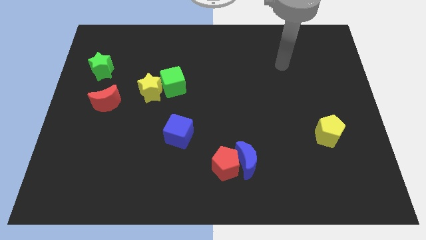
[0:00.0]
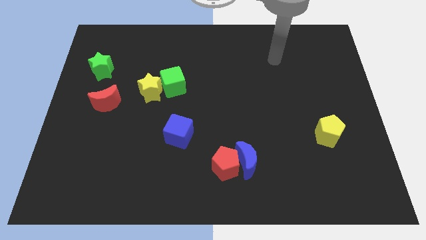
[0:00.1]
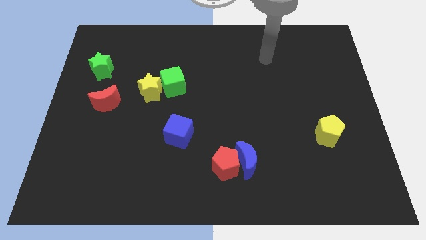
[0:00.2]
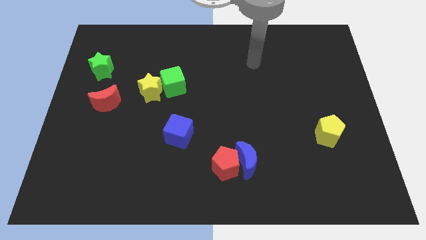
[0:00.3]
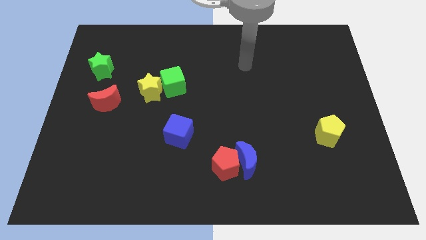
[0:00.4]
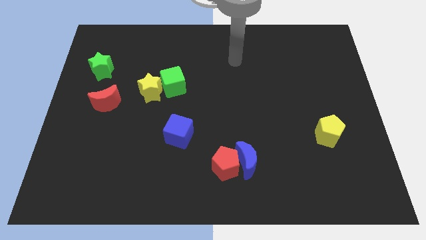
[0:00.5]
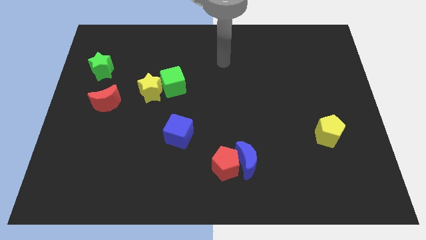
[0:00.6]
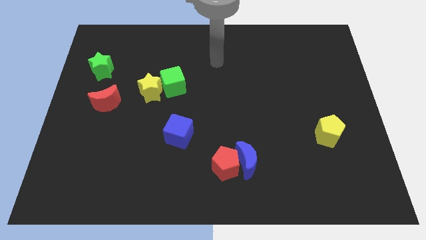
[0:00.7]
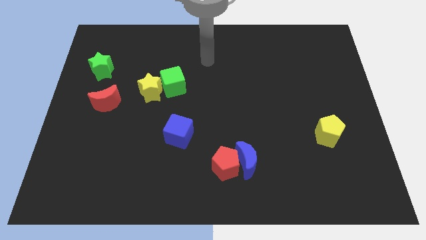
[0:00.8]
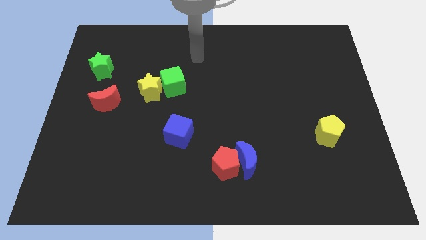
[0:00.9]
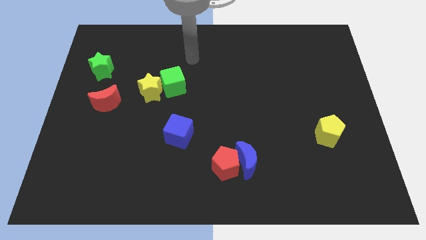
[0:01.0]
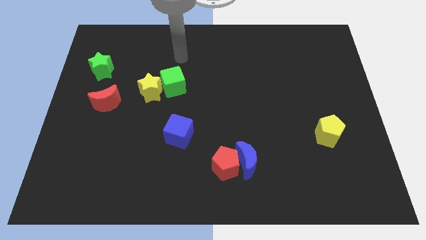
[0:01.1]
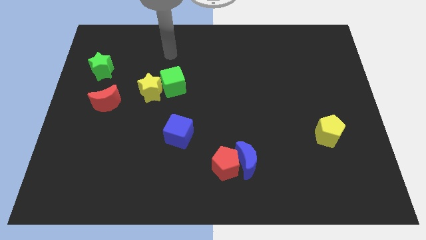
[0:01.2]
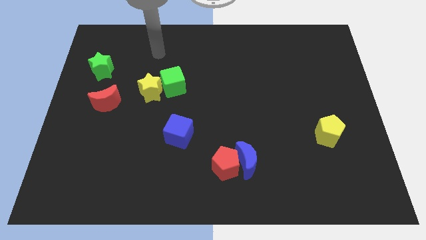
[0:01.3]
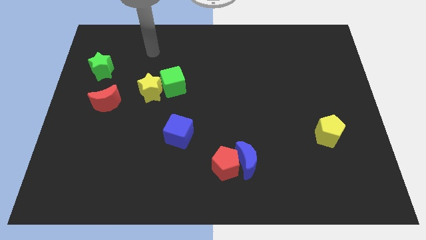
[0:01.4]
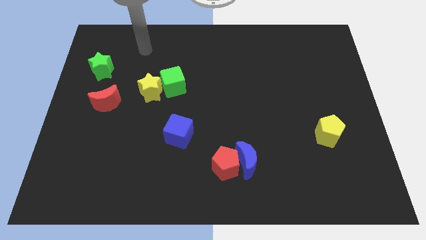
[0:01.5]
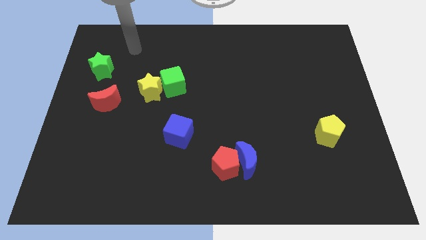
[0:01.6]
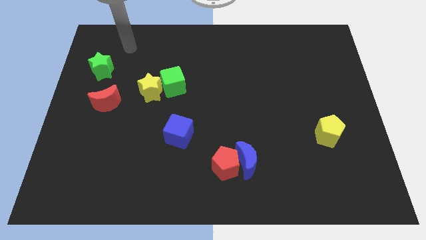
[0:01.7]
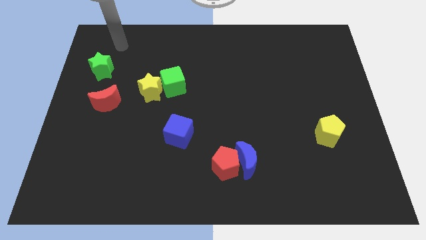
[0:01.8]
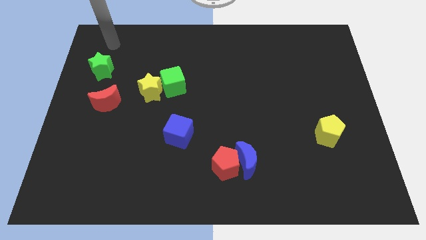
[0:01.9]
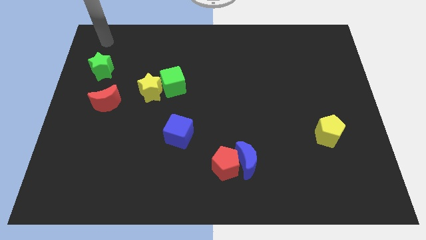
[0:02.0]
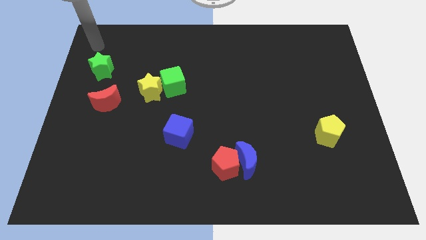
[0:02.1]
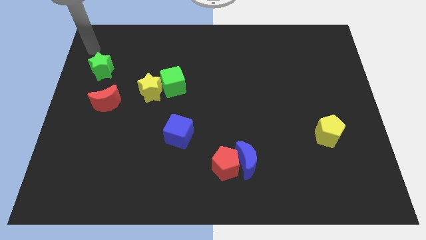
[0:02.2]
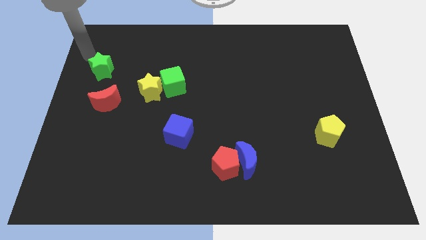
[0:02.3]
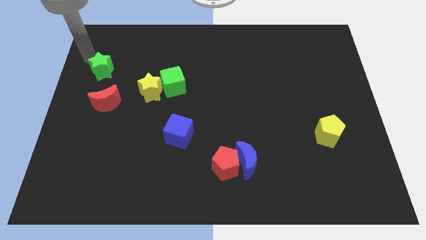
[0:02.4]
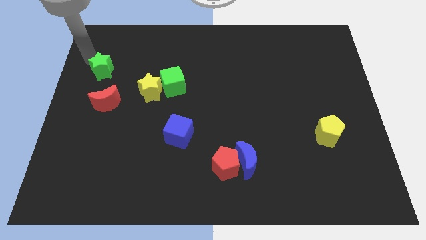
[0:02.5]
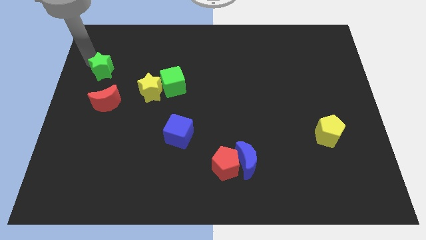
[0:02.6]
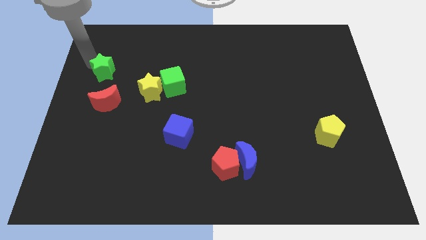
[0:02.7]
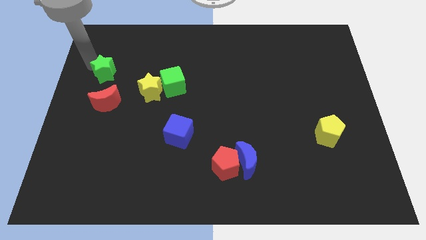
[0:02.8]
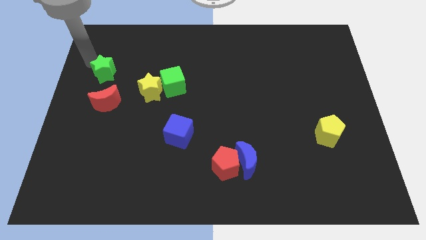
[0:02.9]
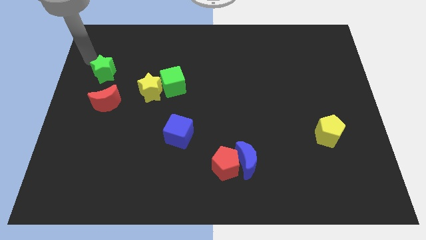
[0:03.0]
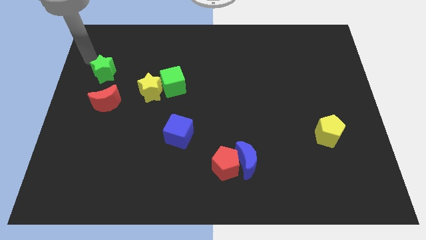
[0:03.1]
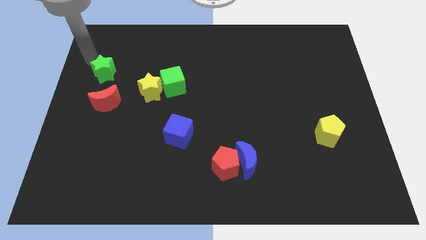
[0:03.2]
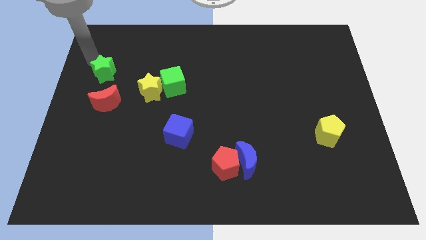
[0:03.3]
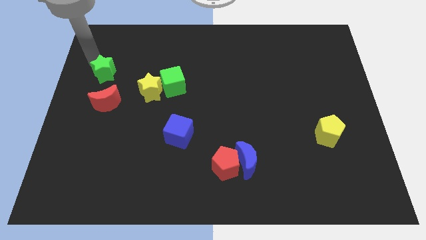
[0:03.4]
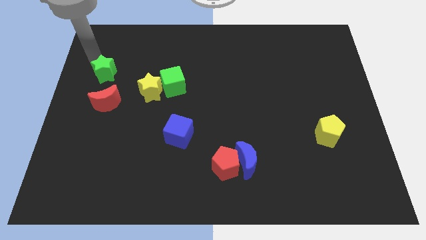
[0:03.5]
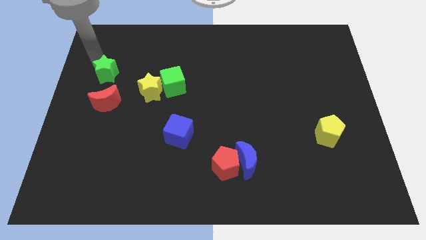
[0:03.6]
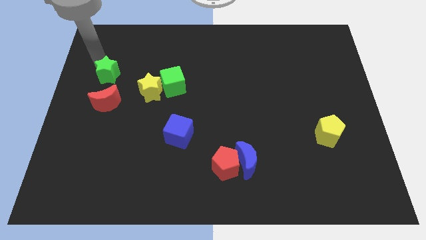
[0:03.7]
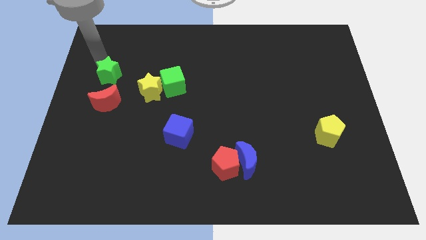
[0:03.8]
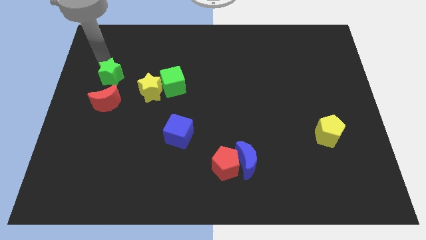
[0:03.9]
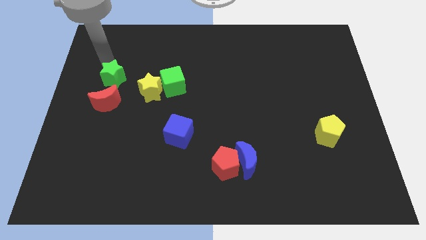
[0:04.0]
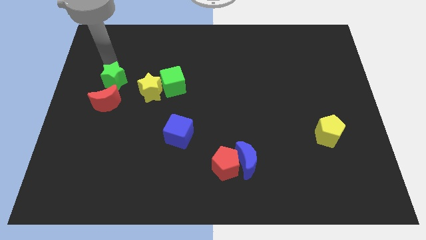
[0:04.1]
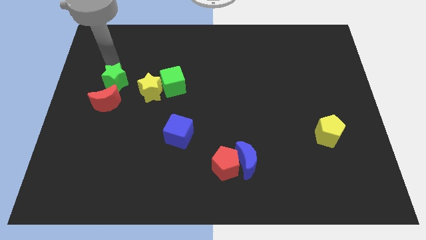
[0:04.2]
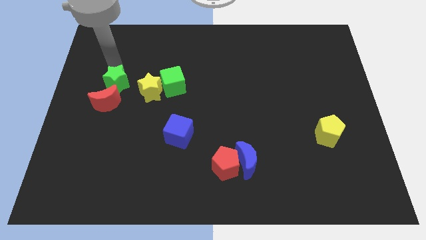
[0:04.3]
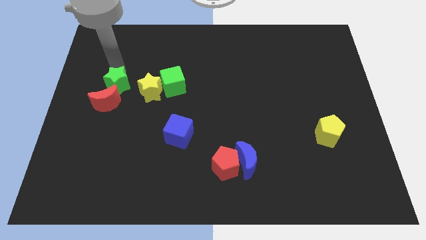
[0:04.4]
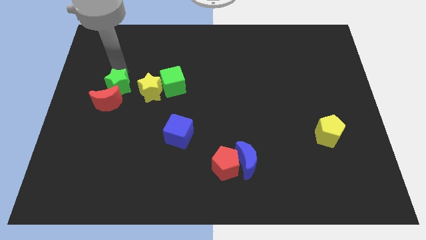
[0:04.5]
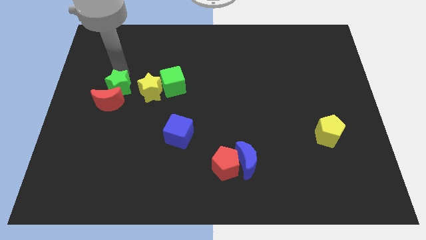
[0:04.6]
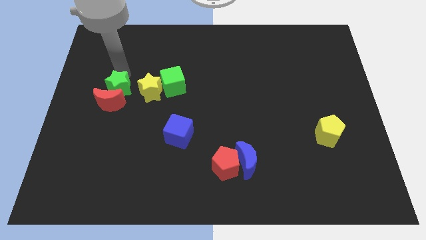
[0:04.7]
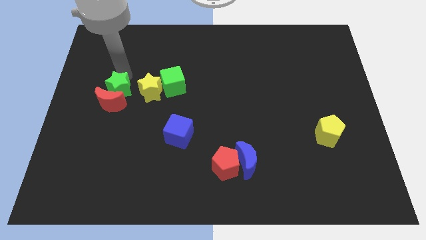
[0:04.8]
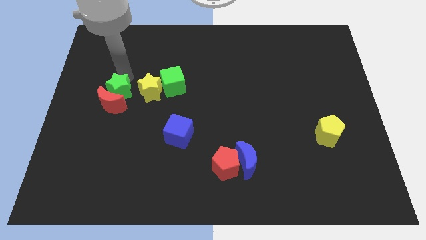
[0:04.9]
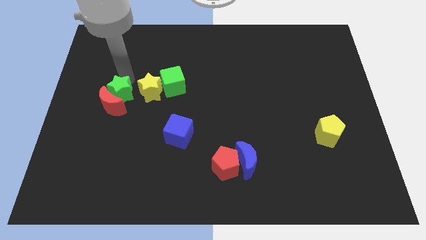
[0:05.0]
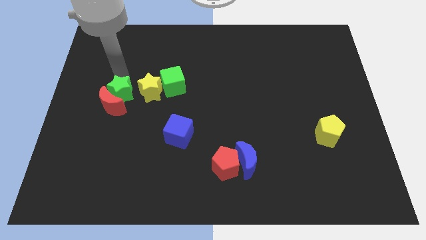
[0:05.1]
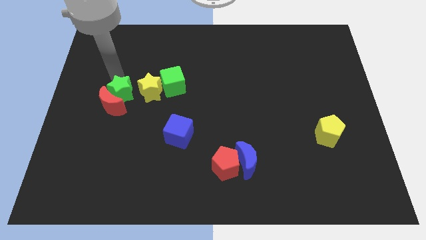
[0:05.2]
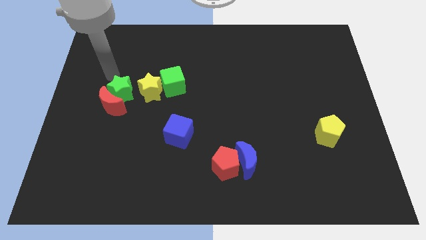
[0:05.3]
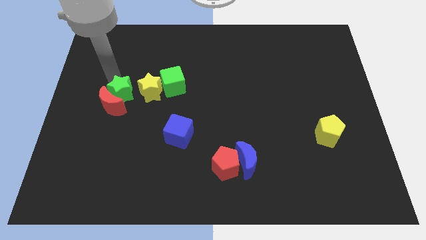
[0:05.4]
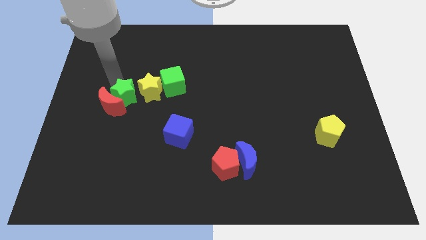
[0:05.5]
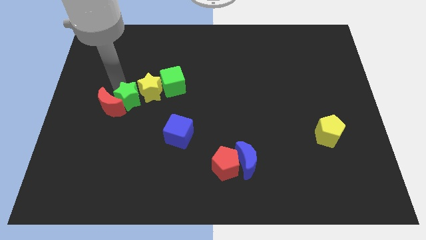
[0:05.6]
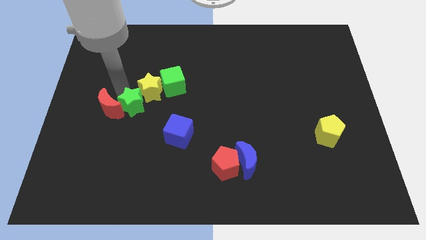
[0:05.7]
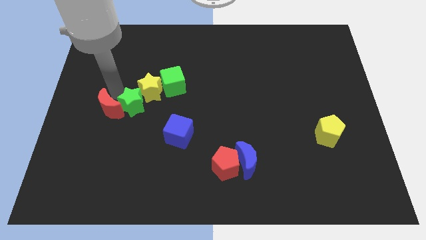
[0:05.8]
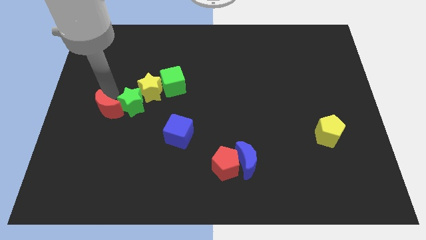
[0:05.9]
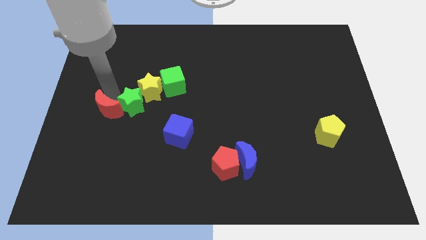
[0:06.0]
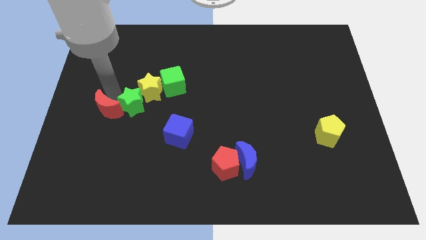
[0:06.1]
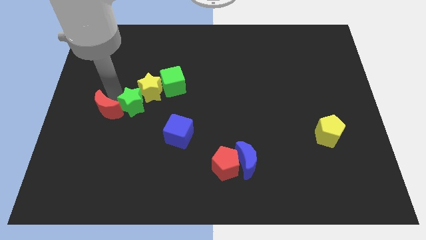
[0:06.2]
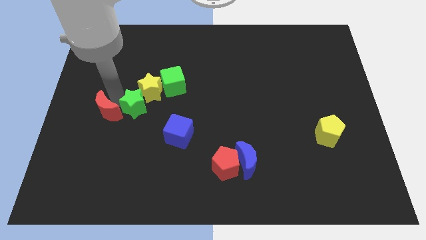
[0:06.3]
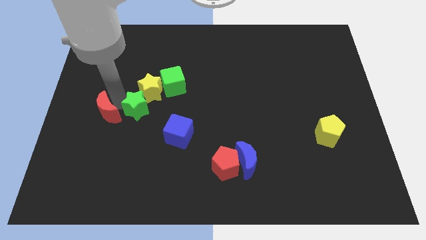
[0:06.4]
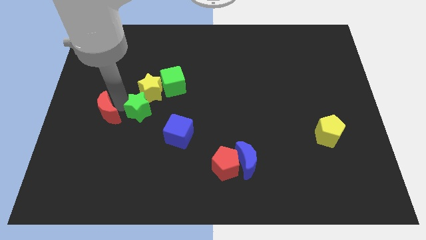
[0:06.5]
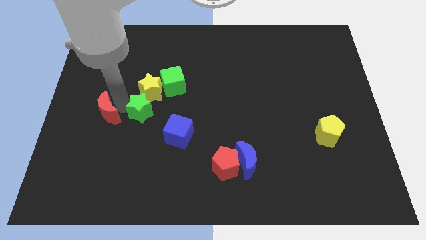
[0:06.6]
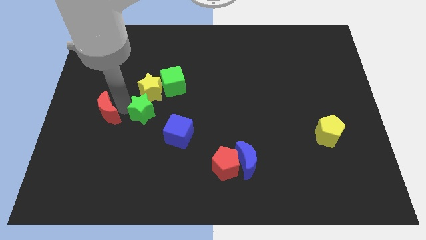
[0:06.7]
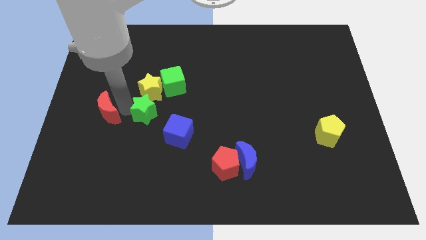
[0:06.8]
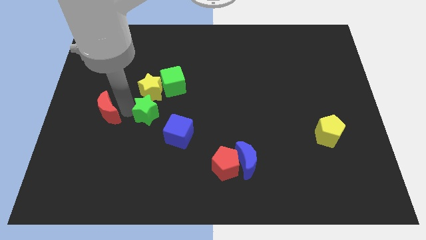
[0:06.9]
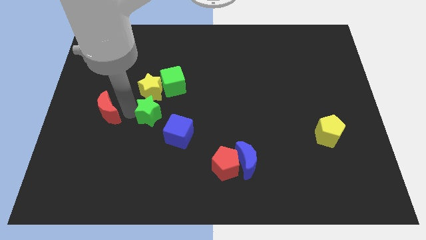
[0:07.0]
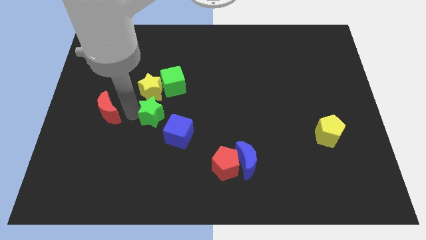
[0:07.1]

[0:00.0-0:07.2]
push the green star below the green cube
